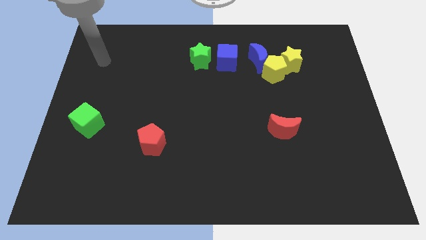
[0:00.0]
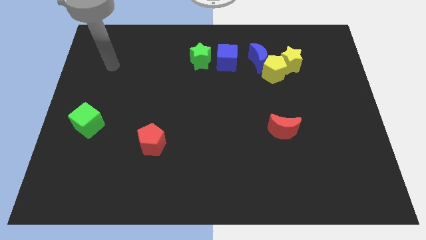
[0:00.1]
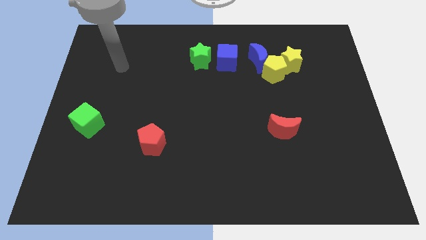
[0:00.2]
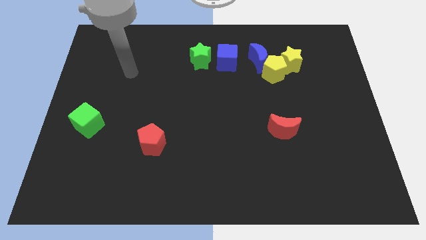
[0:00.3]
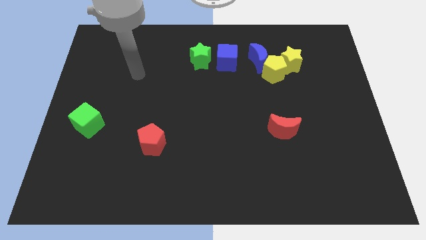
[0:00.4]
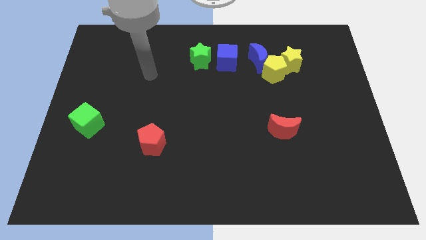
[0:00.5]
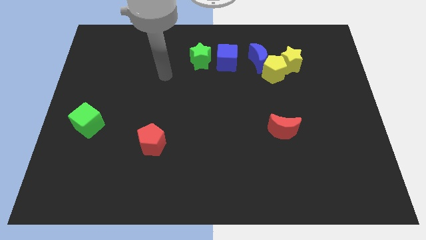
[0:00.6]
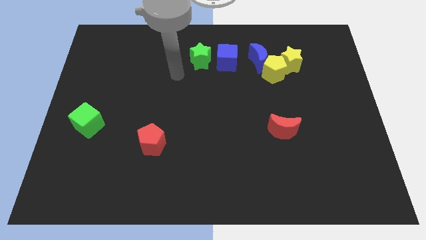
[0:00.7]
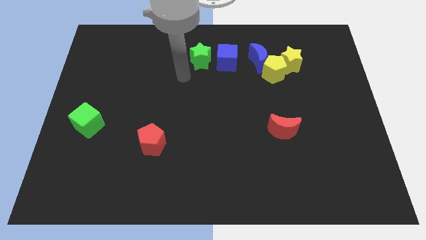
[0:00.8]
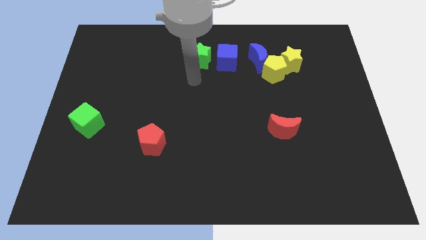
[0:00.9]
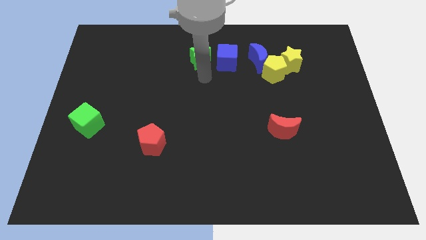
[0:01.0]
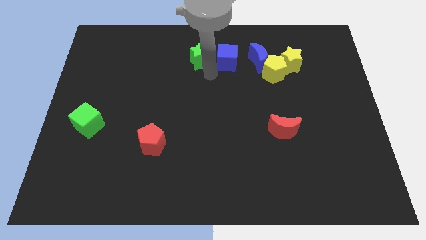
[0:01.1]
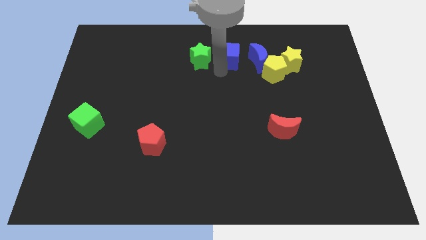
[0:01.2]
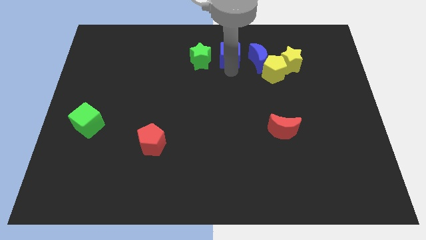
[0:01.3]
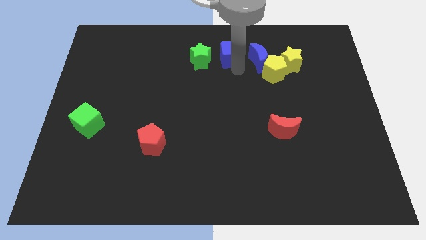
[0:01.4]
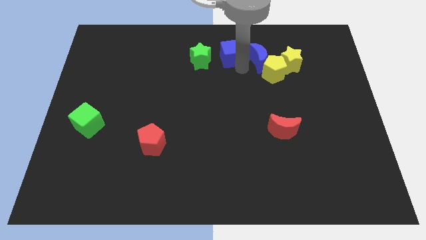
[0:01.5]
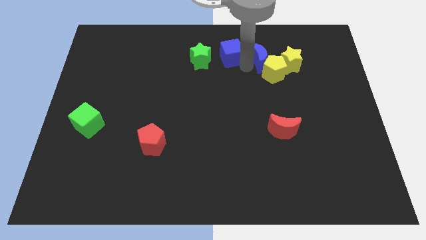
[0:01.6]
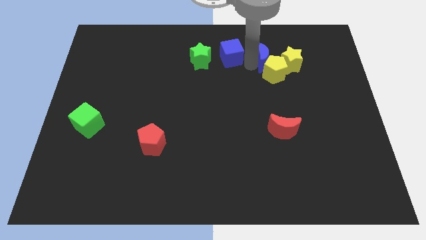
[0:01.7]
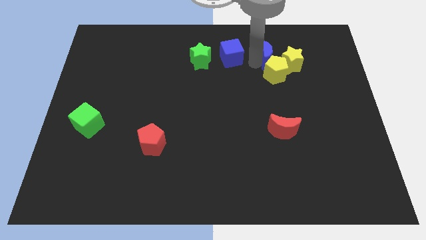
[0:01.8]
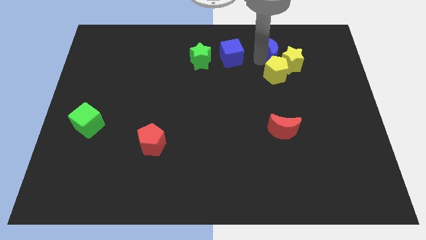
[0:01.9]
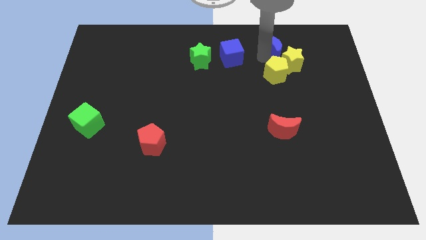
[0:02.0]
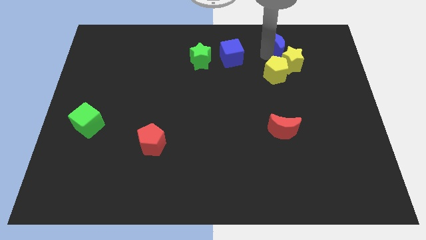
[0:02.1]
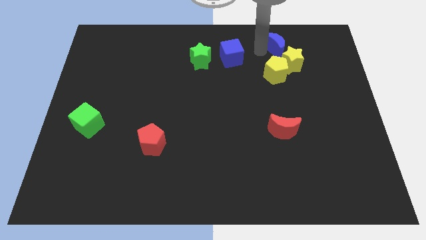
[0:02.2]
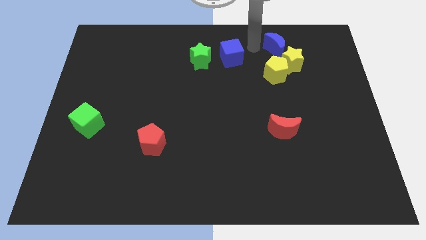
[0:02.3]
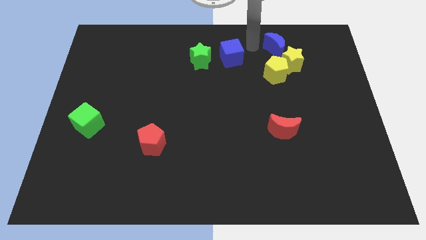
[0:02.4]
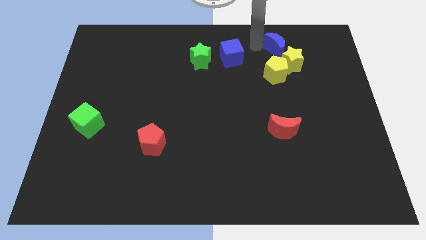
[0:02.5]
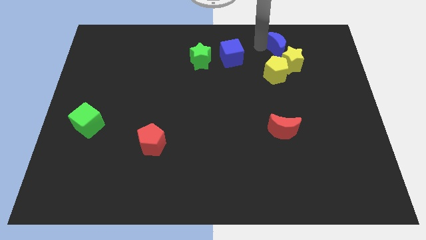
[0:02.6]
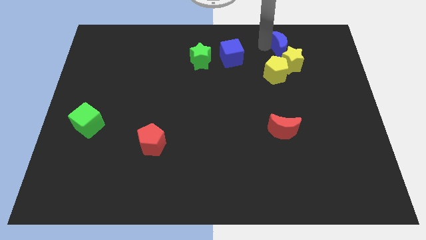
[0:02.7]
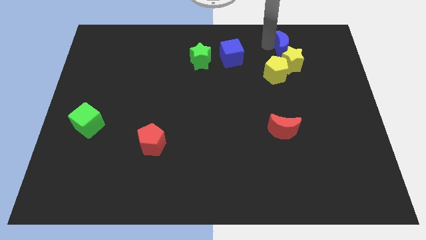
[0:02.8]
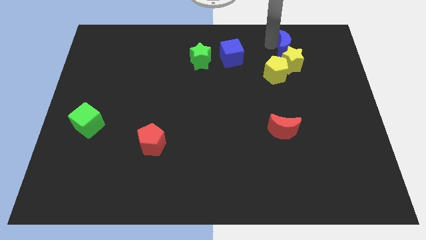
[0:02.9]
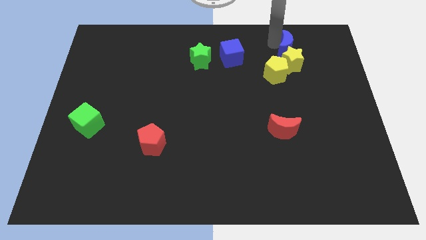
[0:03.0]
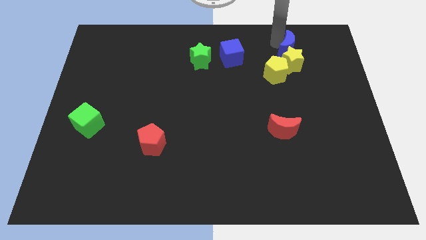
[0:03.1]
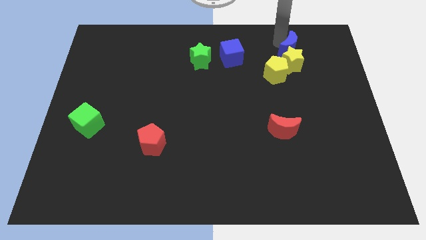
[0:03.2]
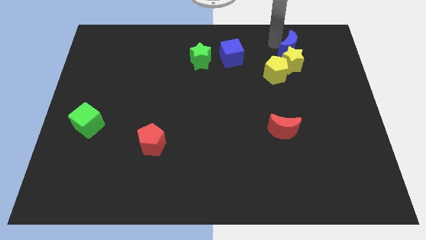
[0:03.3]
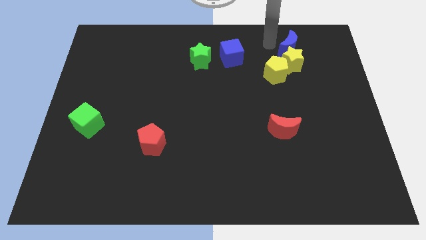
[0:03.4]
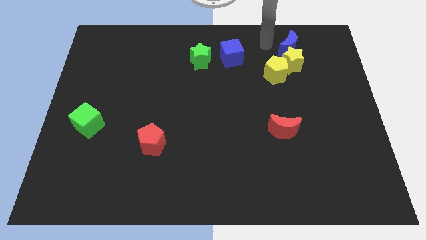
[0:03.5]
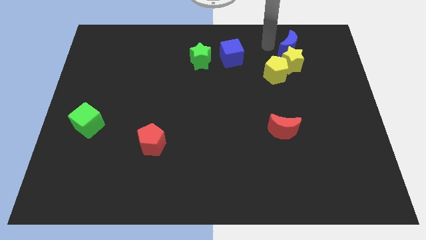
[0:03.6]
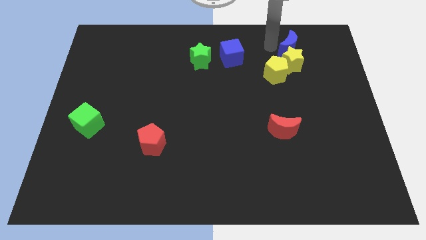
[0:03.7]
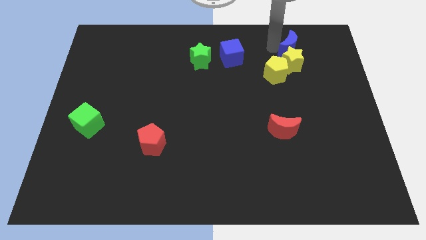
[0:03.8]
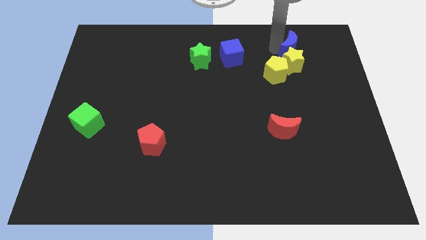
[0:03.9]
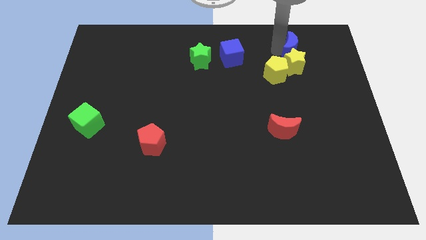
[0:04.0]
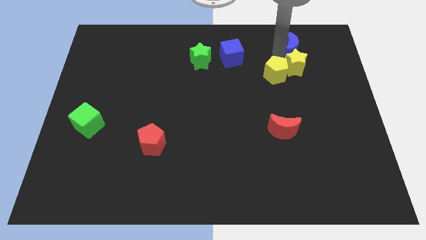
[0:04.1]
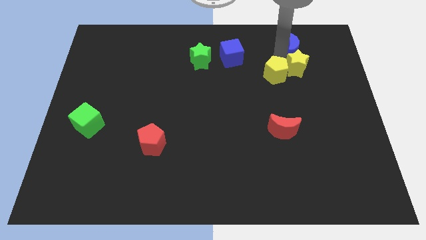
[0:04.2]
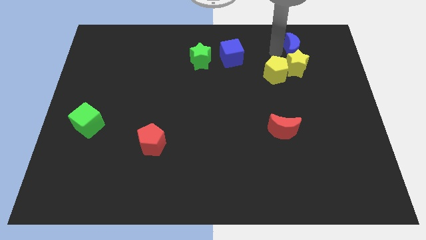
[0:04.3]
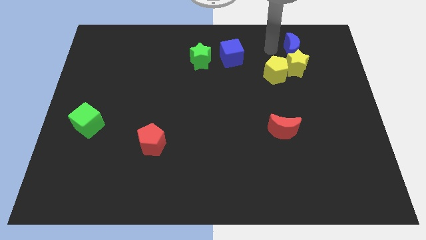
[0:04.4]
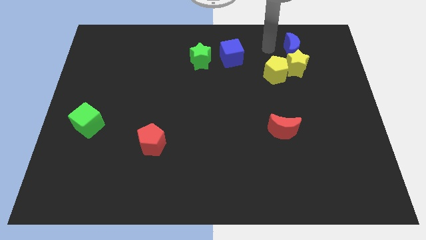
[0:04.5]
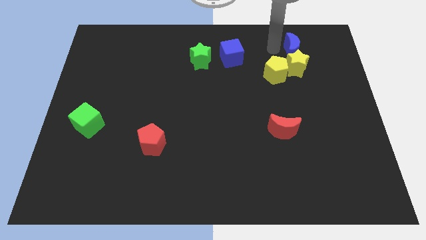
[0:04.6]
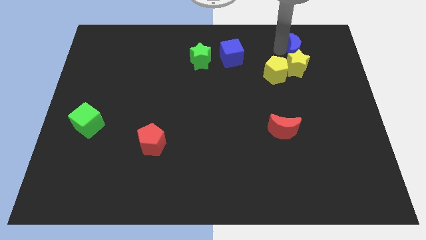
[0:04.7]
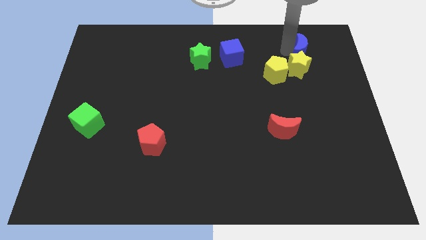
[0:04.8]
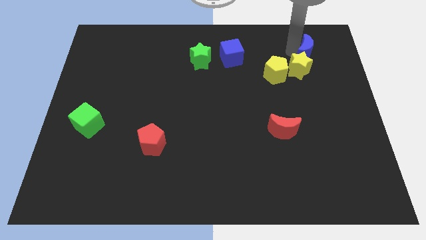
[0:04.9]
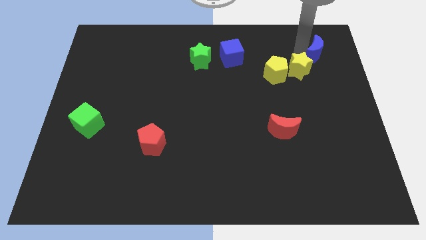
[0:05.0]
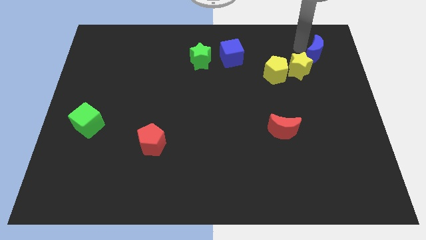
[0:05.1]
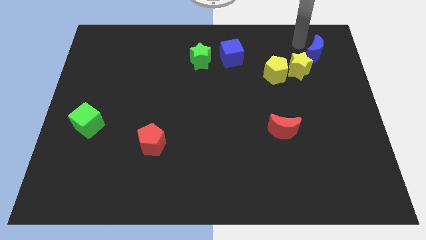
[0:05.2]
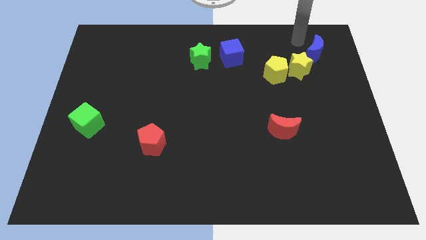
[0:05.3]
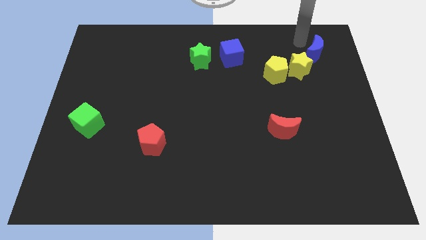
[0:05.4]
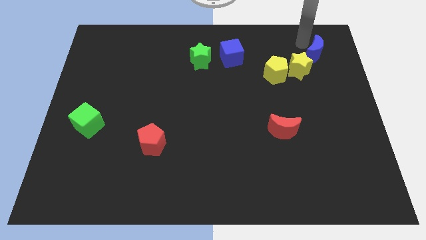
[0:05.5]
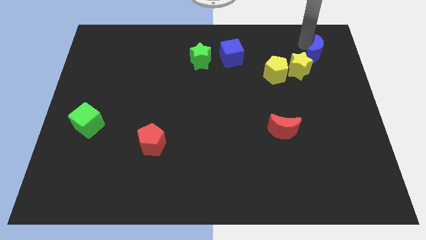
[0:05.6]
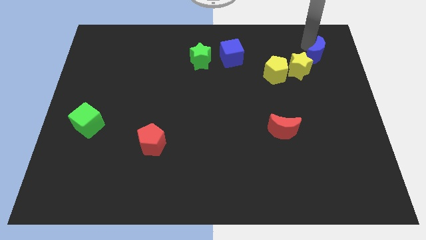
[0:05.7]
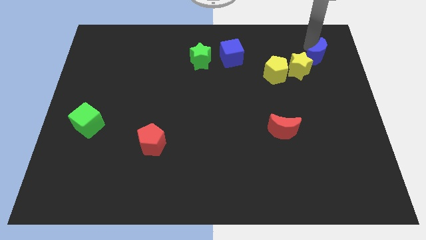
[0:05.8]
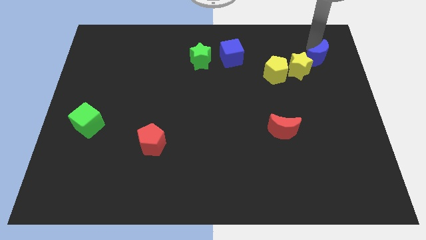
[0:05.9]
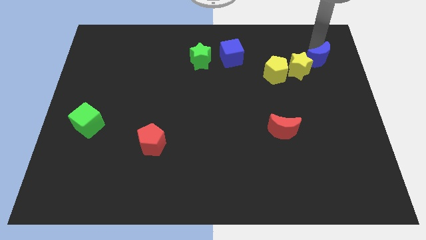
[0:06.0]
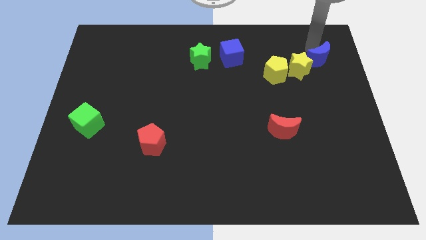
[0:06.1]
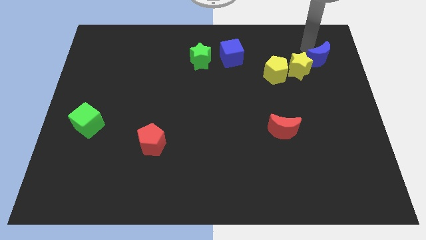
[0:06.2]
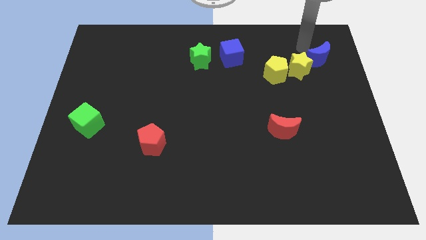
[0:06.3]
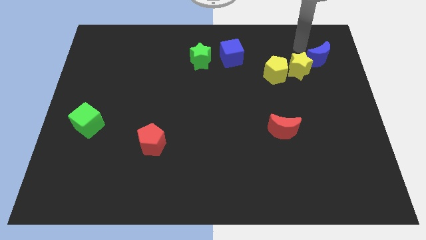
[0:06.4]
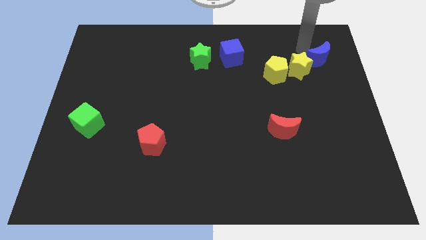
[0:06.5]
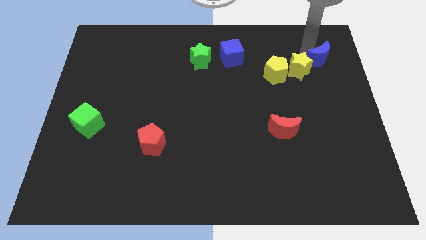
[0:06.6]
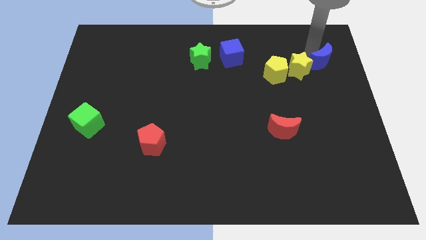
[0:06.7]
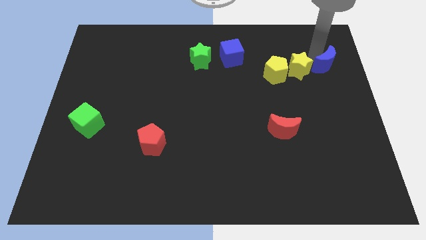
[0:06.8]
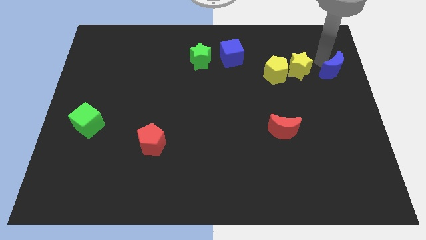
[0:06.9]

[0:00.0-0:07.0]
push the blue moon to the right side of the board
